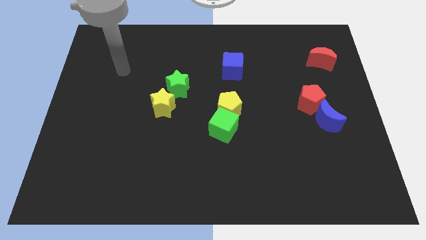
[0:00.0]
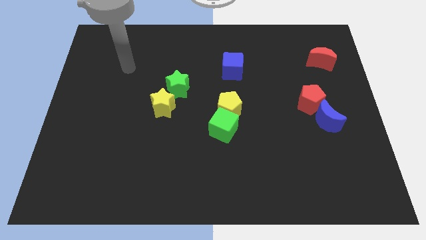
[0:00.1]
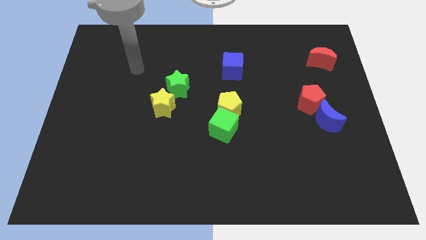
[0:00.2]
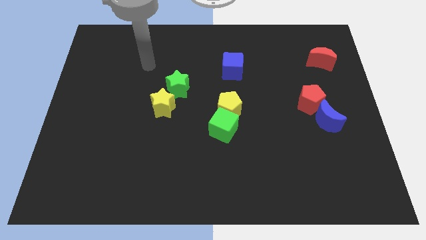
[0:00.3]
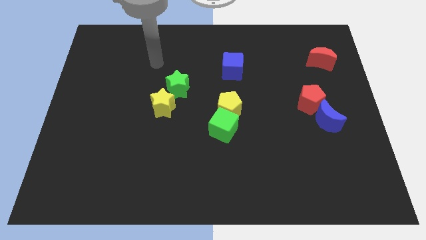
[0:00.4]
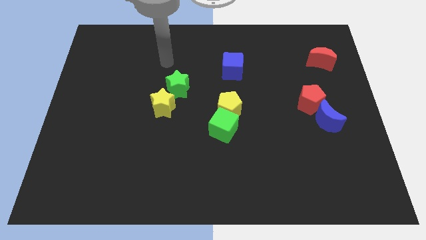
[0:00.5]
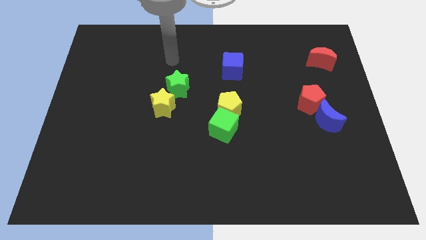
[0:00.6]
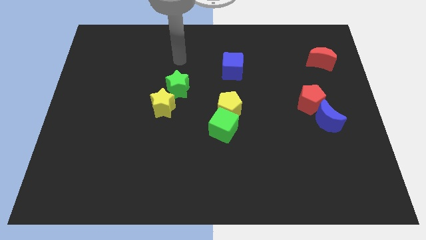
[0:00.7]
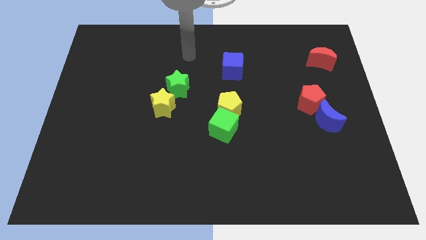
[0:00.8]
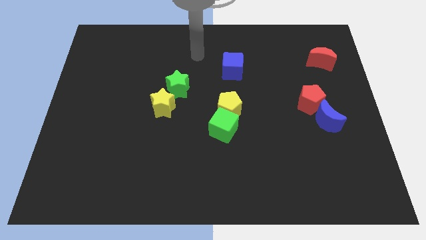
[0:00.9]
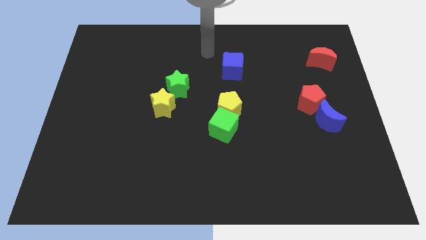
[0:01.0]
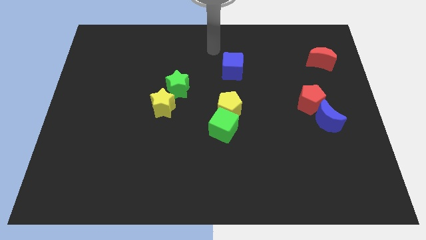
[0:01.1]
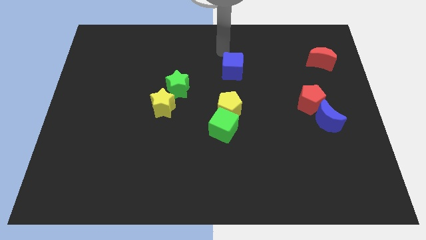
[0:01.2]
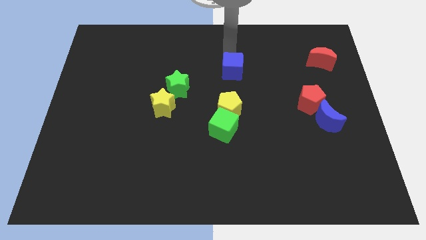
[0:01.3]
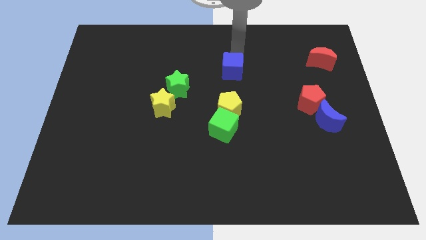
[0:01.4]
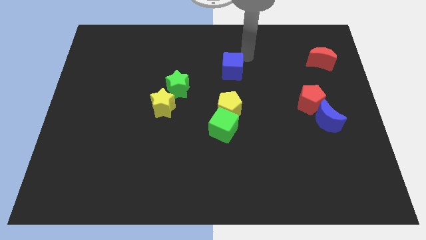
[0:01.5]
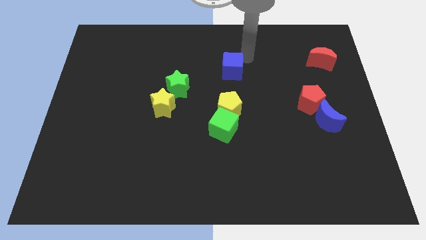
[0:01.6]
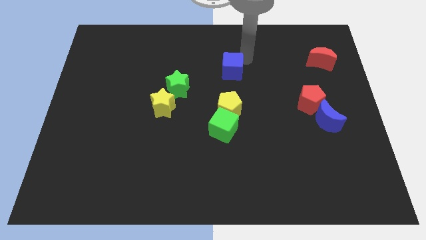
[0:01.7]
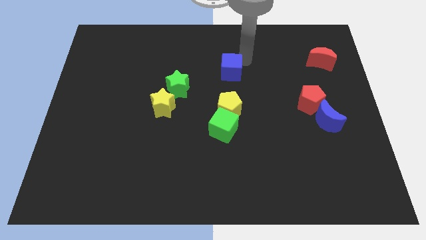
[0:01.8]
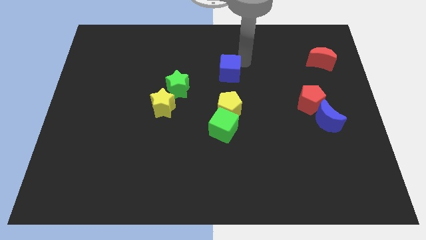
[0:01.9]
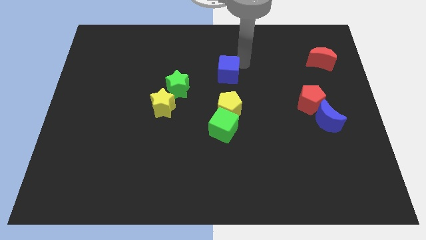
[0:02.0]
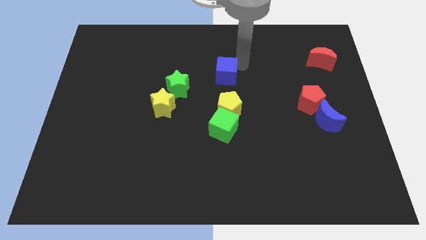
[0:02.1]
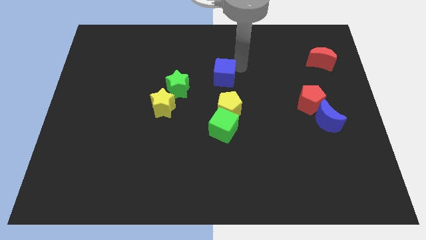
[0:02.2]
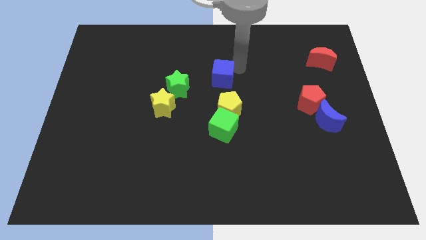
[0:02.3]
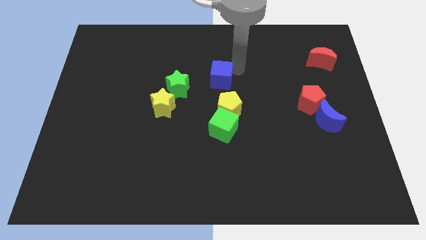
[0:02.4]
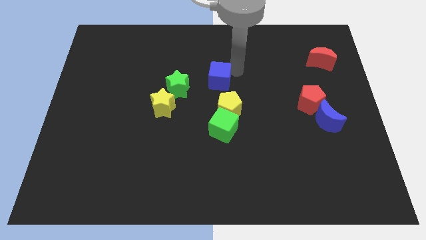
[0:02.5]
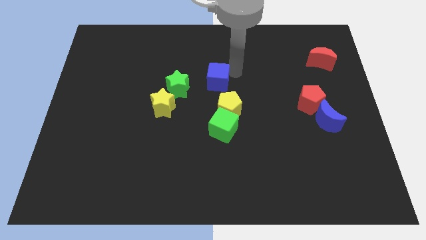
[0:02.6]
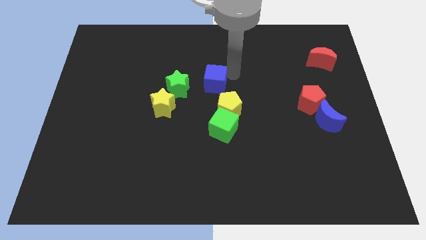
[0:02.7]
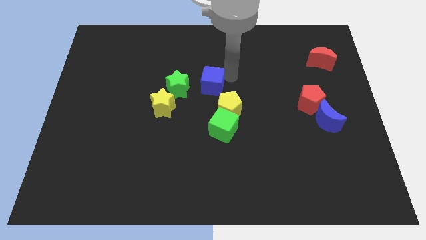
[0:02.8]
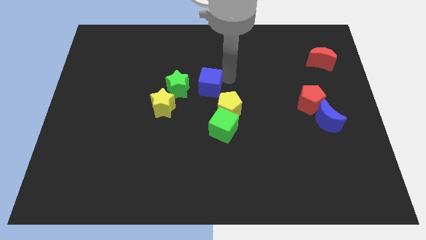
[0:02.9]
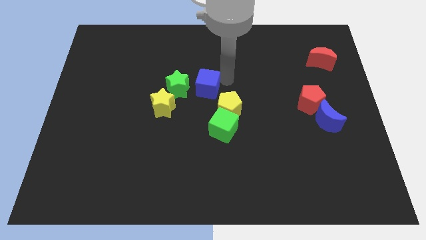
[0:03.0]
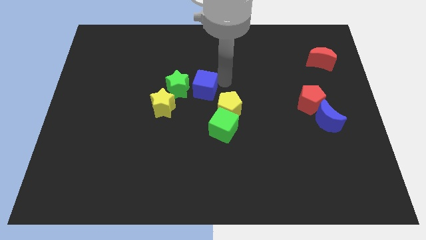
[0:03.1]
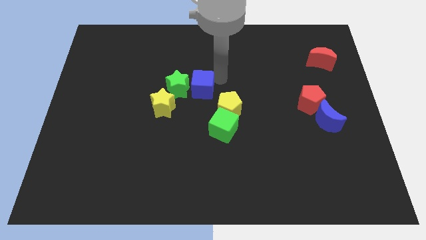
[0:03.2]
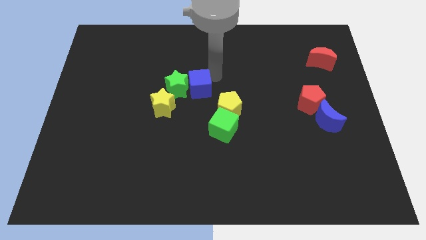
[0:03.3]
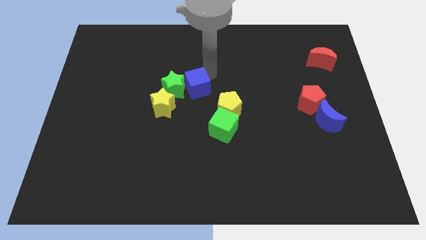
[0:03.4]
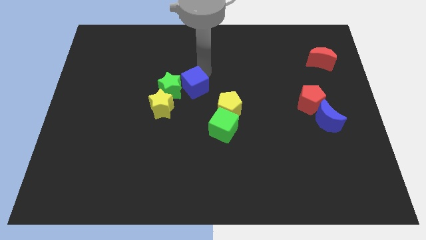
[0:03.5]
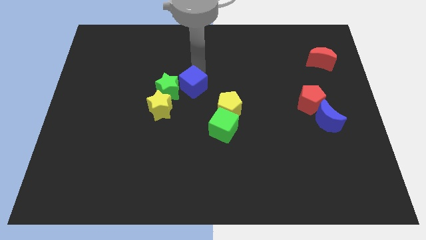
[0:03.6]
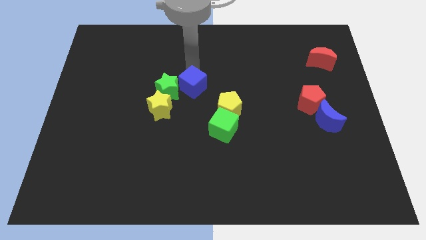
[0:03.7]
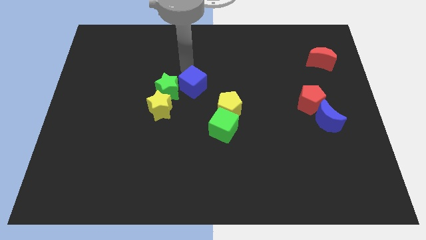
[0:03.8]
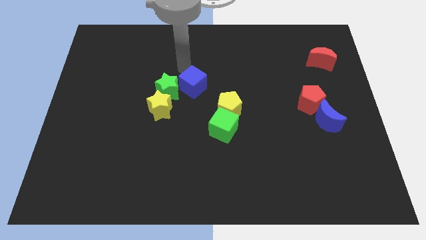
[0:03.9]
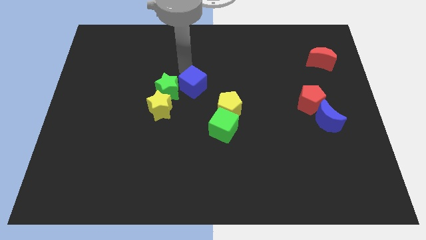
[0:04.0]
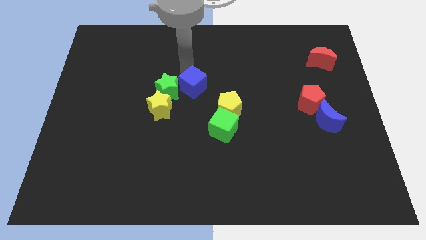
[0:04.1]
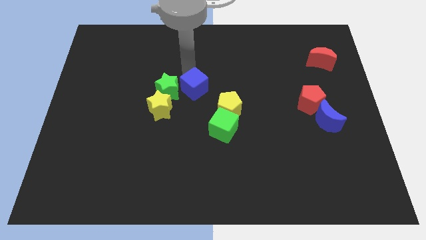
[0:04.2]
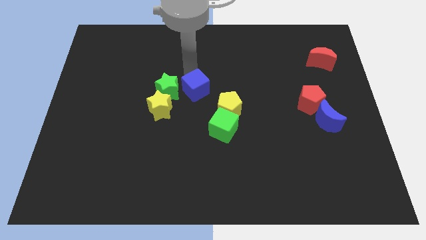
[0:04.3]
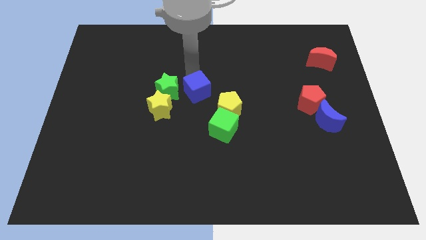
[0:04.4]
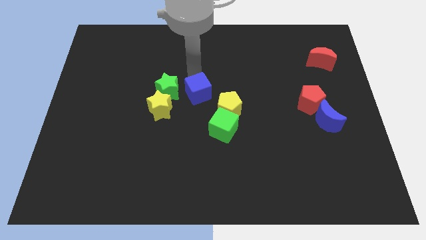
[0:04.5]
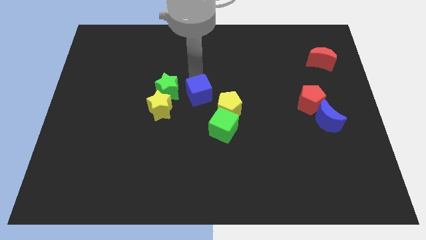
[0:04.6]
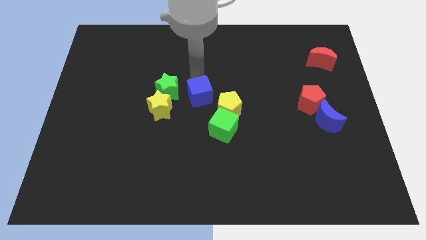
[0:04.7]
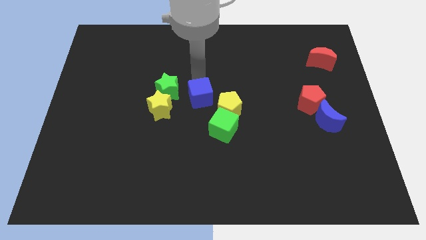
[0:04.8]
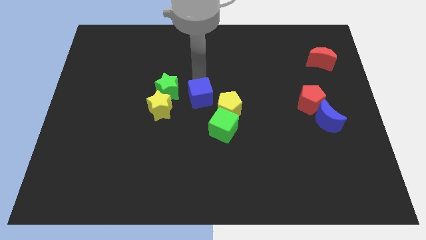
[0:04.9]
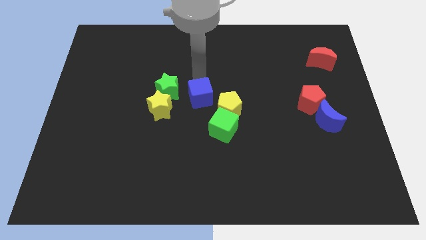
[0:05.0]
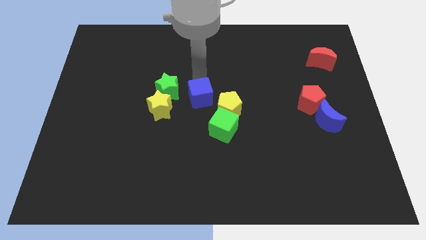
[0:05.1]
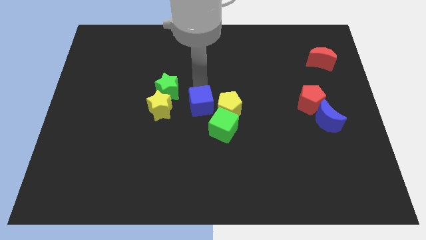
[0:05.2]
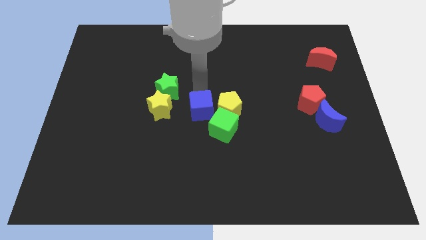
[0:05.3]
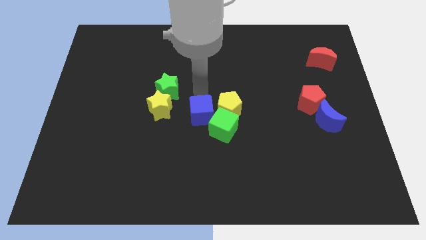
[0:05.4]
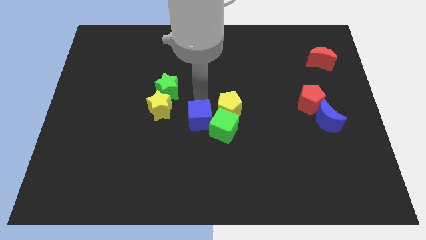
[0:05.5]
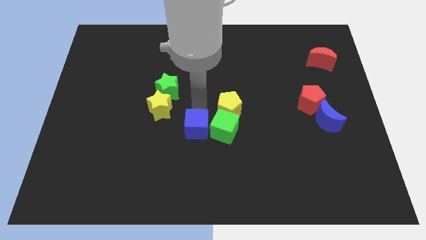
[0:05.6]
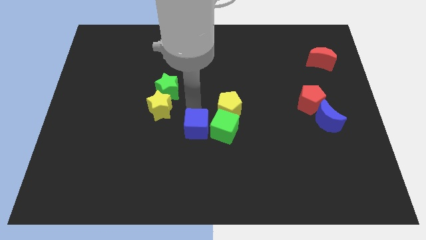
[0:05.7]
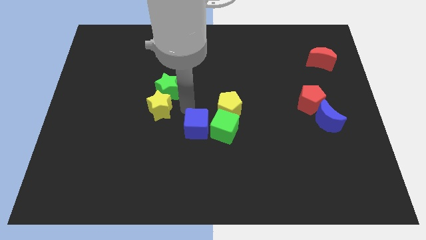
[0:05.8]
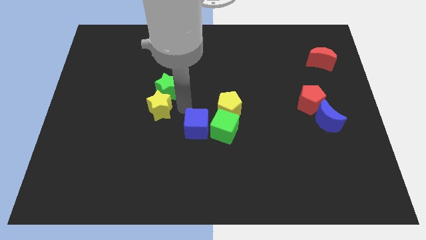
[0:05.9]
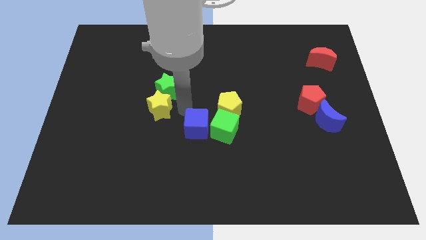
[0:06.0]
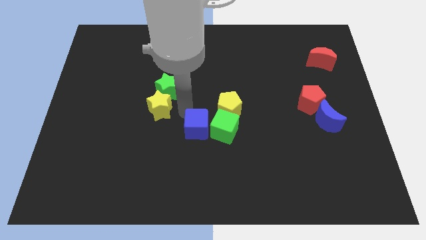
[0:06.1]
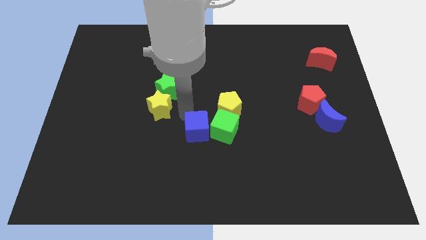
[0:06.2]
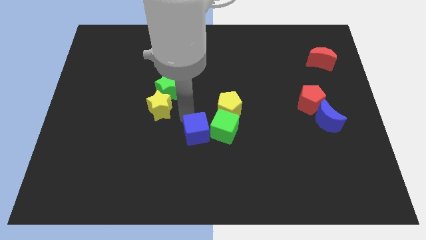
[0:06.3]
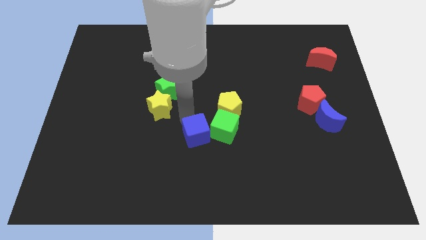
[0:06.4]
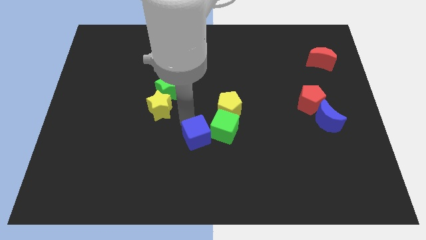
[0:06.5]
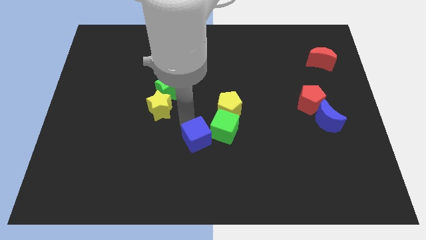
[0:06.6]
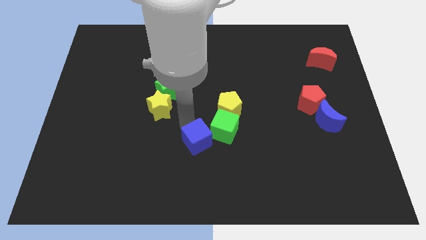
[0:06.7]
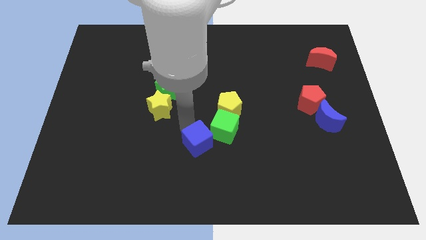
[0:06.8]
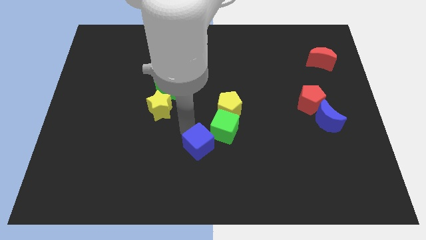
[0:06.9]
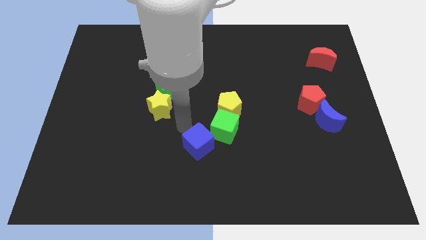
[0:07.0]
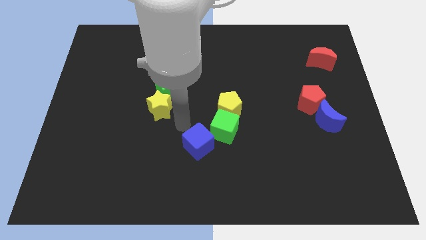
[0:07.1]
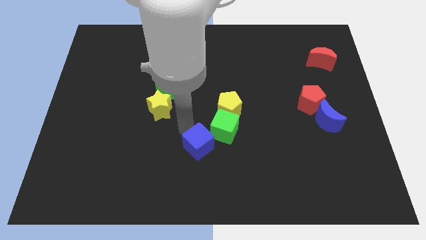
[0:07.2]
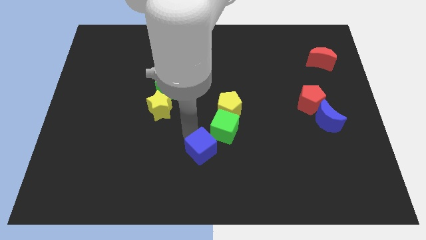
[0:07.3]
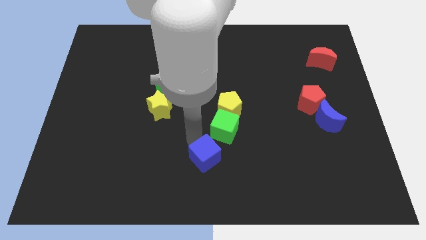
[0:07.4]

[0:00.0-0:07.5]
push the blue cube to the bottom
